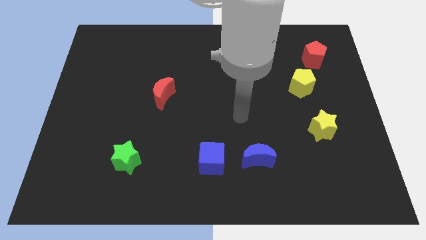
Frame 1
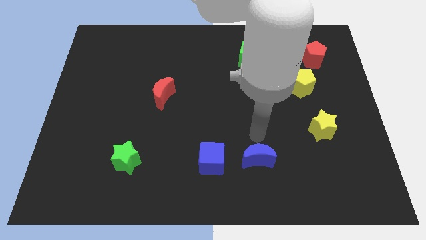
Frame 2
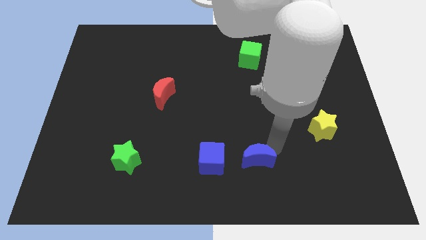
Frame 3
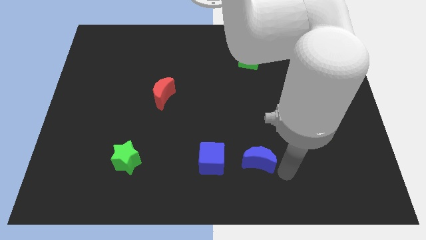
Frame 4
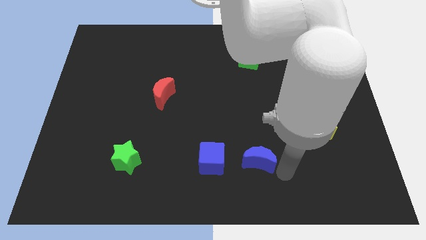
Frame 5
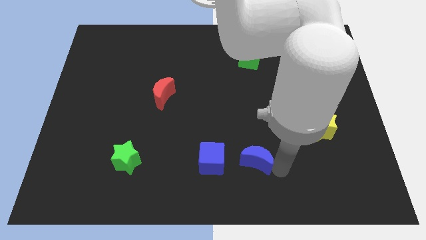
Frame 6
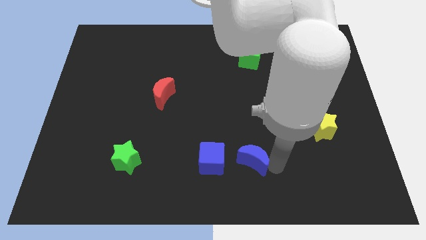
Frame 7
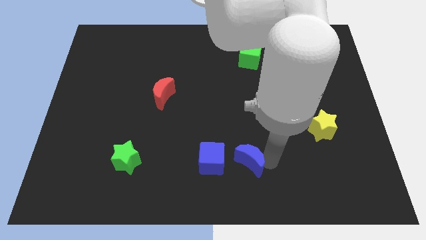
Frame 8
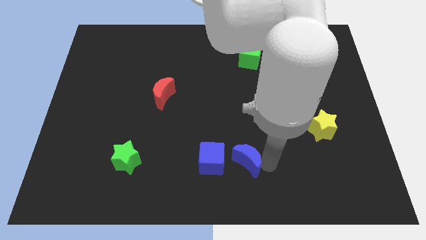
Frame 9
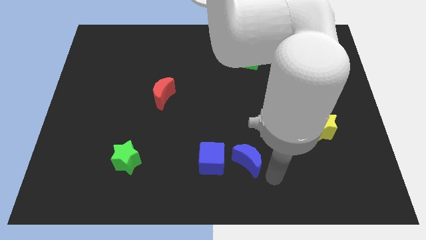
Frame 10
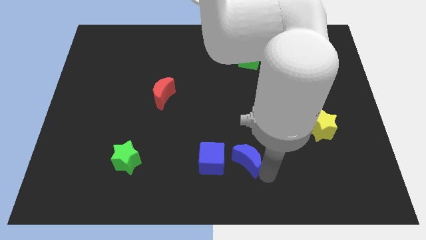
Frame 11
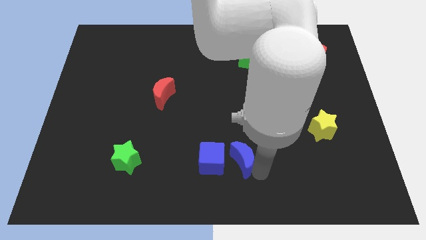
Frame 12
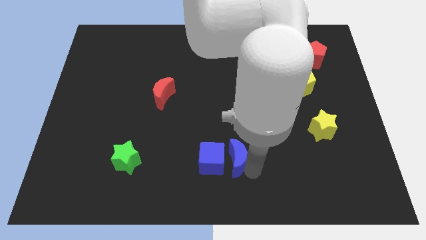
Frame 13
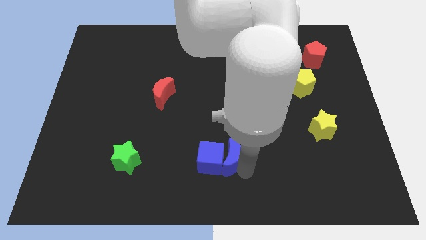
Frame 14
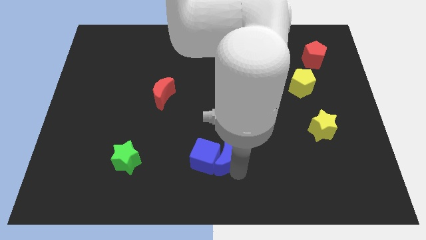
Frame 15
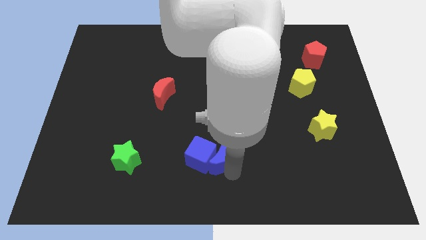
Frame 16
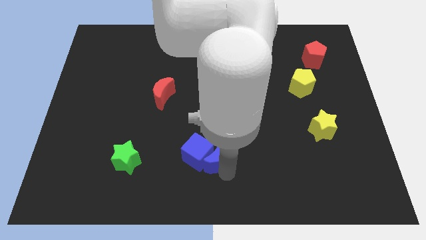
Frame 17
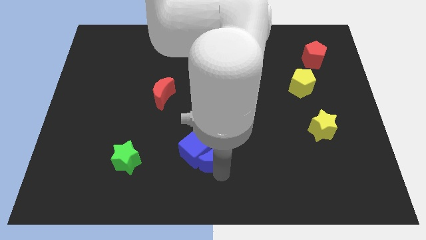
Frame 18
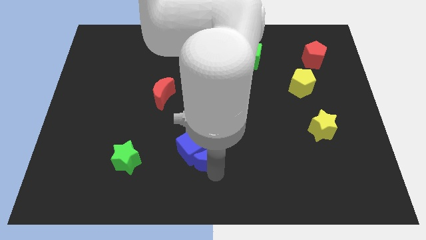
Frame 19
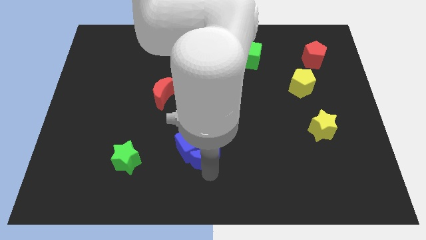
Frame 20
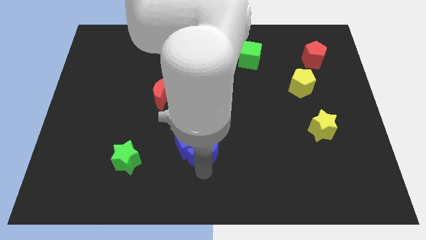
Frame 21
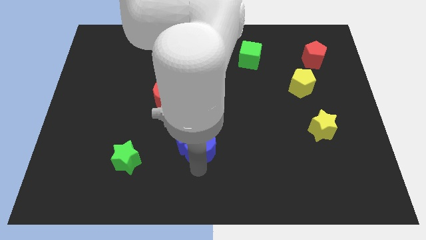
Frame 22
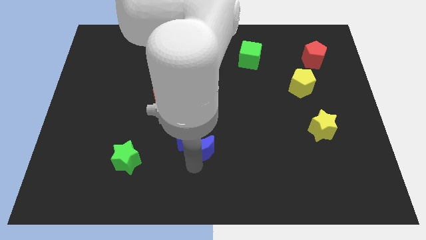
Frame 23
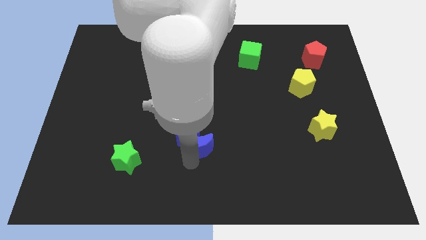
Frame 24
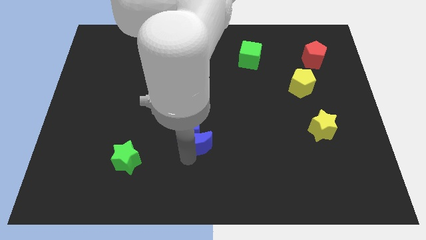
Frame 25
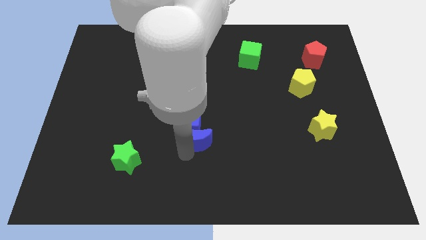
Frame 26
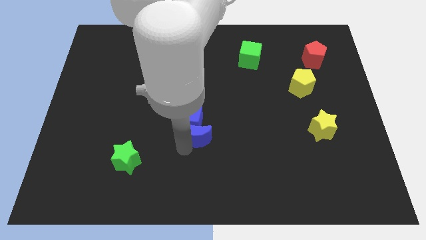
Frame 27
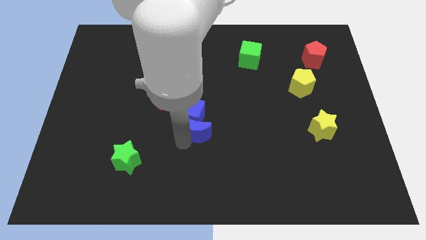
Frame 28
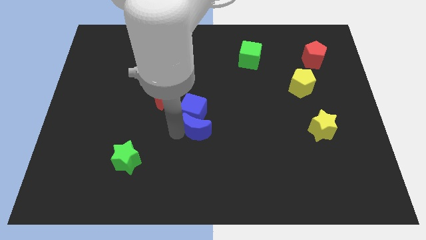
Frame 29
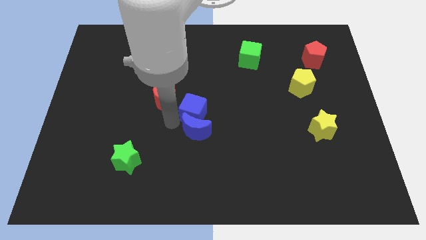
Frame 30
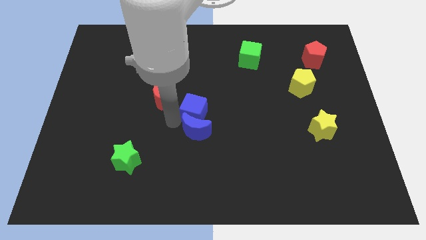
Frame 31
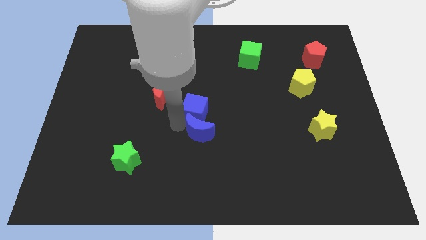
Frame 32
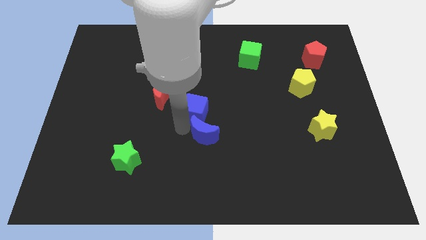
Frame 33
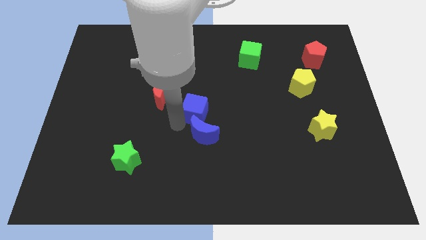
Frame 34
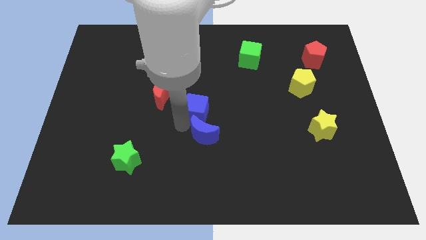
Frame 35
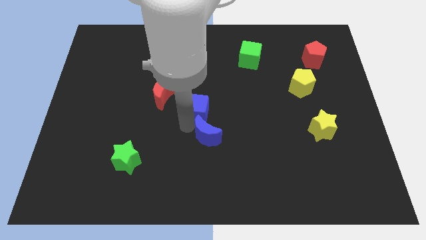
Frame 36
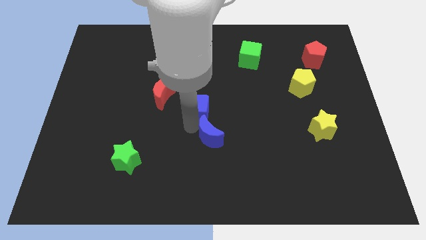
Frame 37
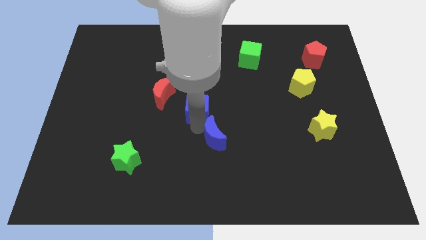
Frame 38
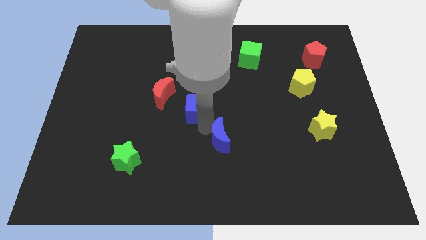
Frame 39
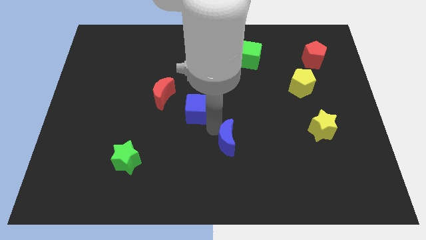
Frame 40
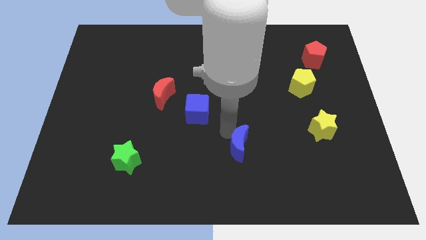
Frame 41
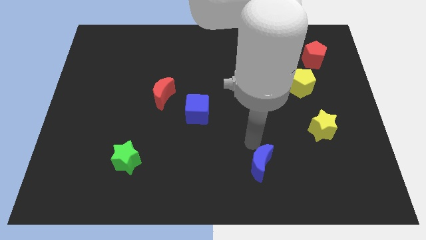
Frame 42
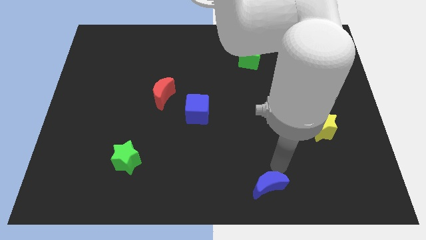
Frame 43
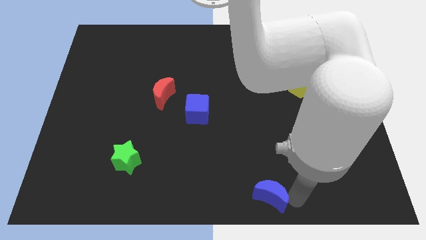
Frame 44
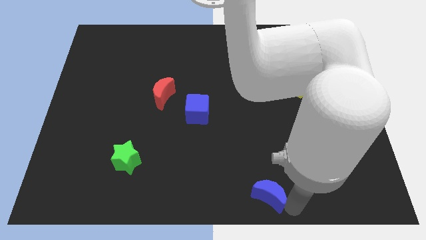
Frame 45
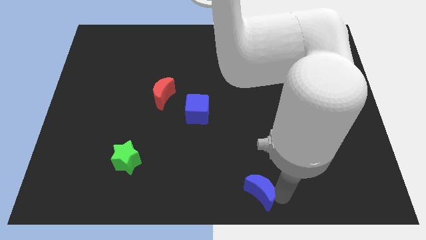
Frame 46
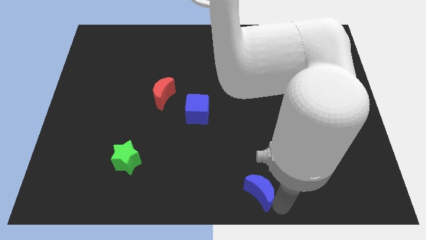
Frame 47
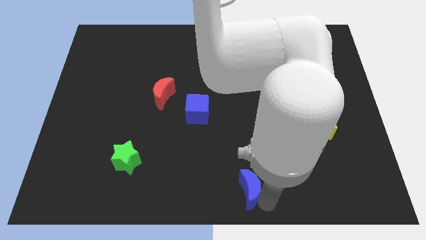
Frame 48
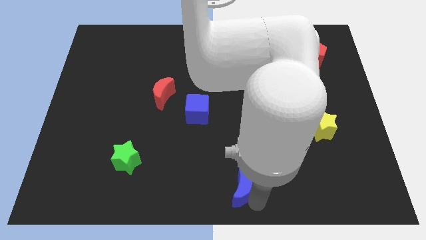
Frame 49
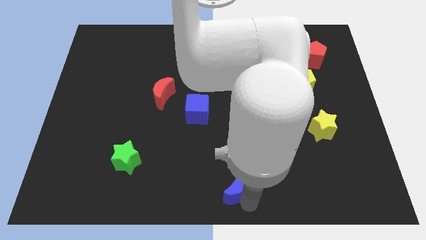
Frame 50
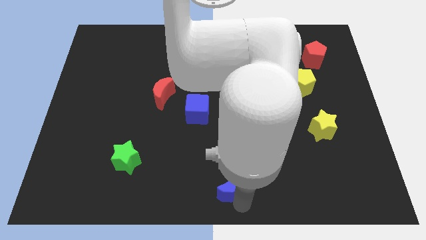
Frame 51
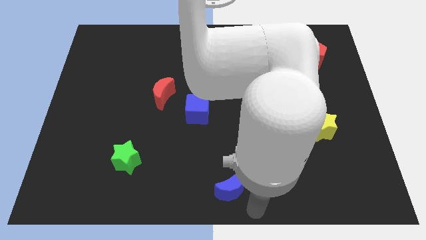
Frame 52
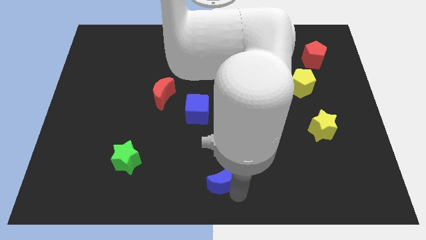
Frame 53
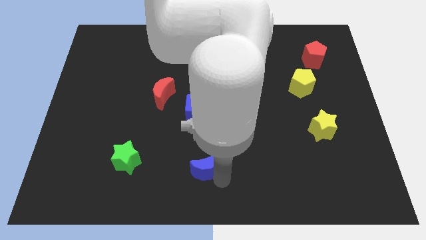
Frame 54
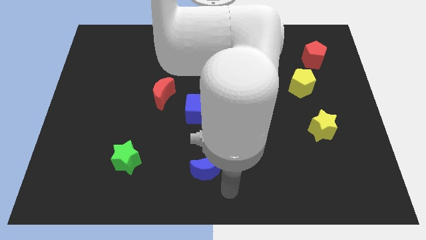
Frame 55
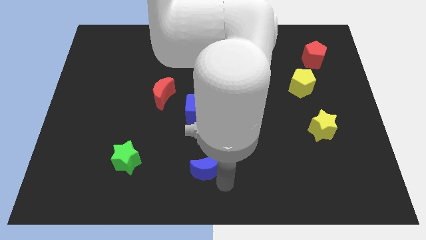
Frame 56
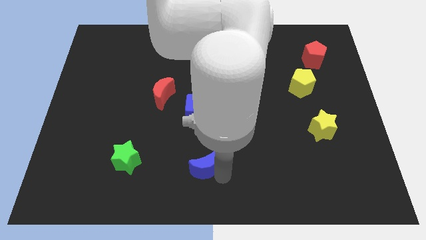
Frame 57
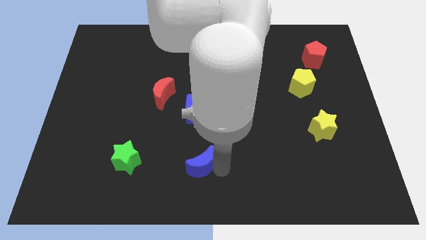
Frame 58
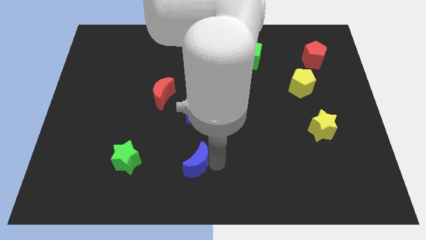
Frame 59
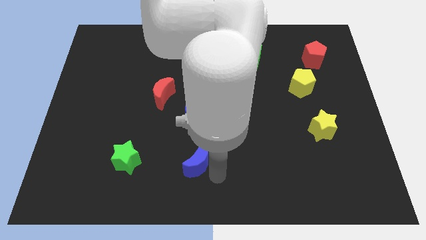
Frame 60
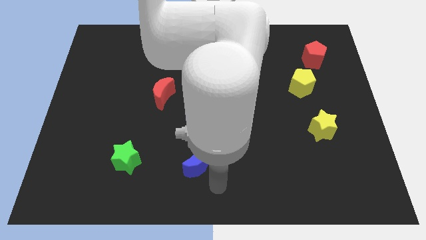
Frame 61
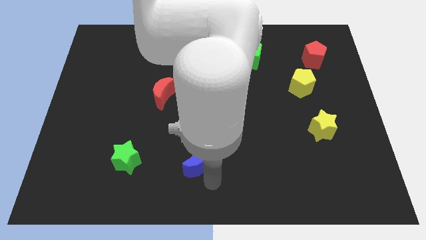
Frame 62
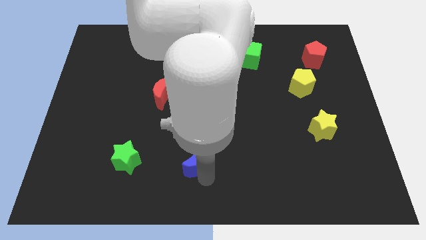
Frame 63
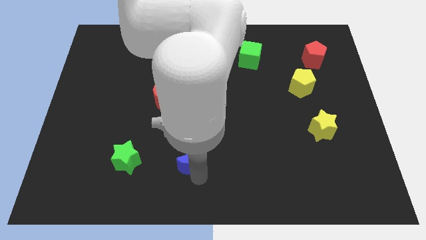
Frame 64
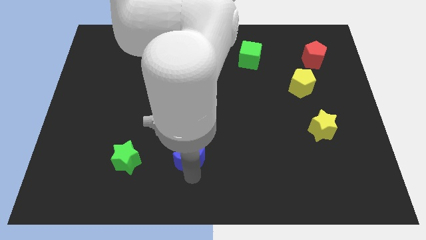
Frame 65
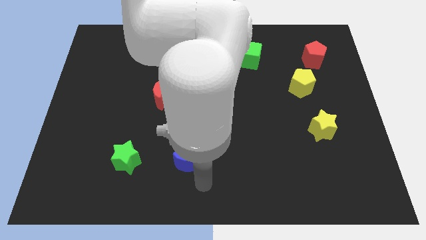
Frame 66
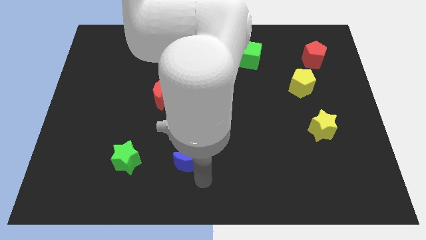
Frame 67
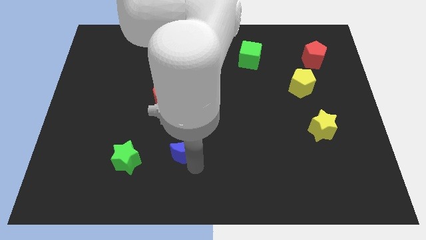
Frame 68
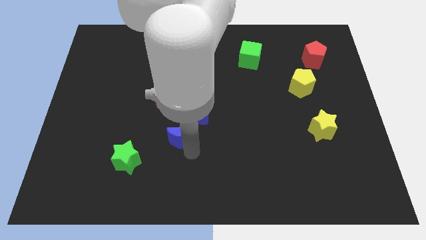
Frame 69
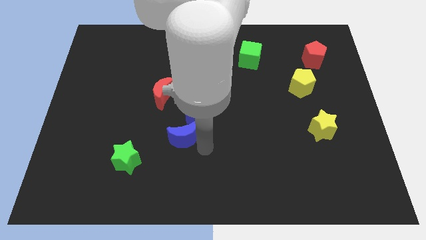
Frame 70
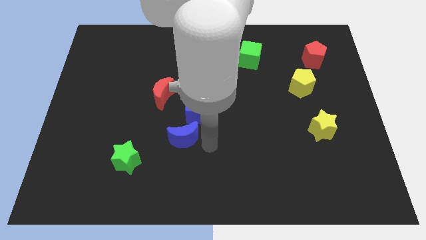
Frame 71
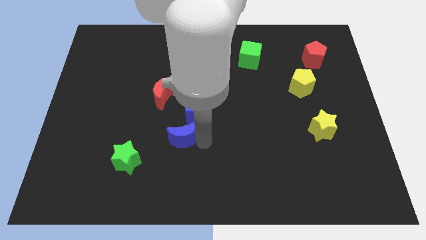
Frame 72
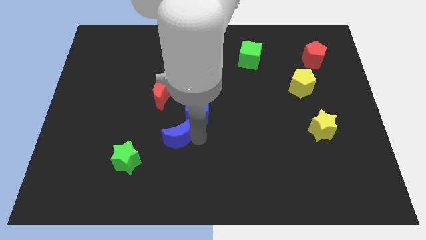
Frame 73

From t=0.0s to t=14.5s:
push the blue moon to the bottom side of the red moon
